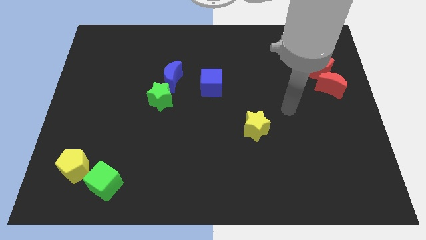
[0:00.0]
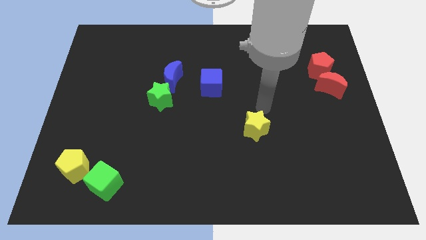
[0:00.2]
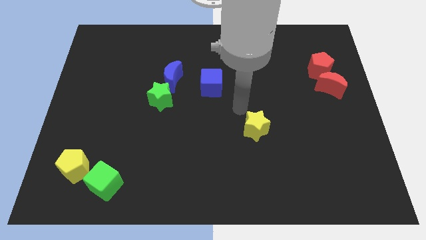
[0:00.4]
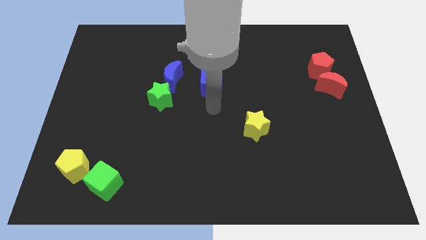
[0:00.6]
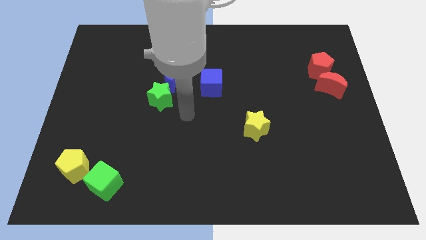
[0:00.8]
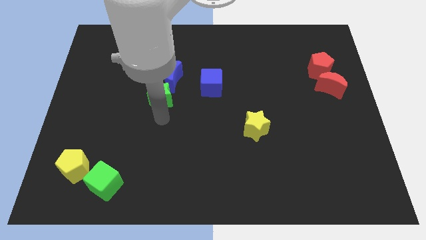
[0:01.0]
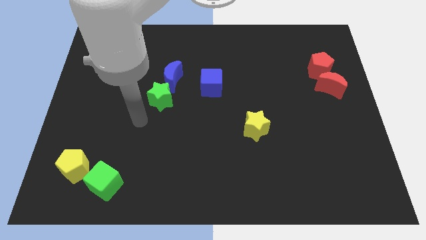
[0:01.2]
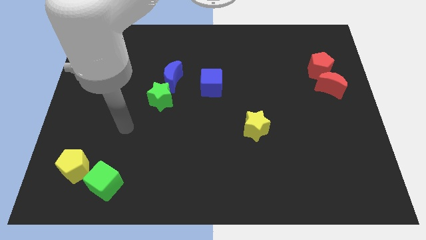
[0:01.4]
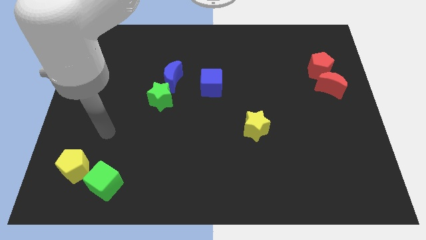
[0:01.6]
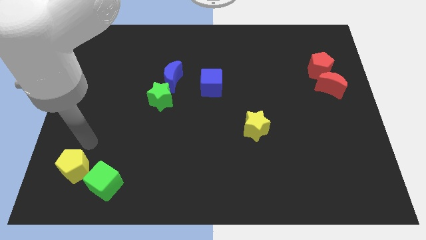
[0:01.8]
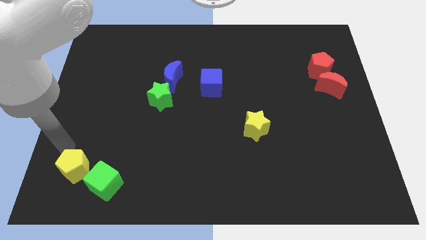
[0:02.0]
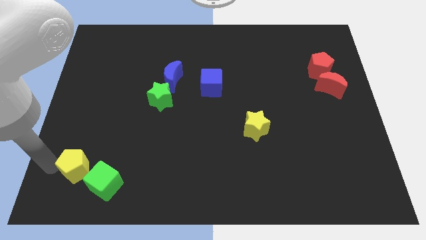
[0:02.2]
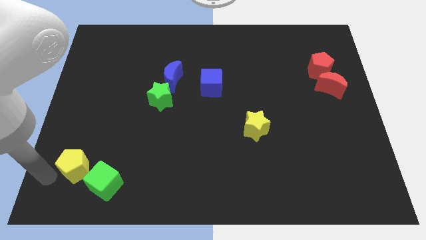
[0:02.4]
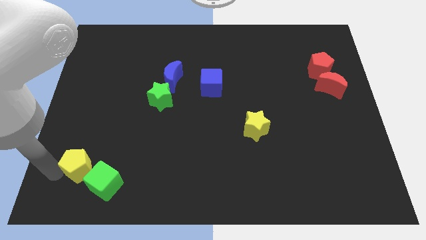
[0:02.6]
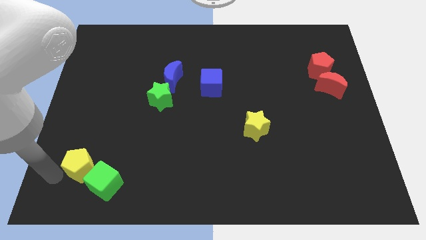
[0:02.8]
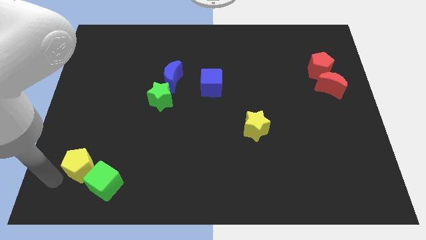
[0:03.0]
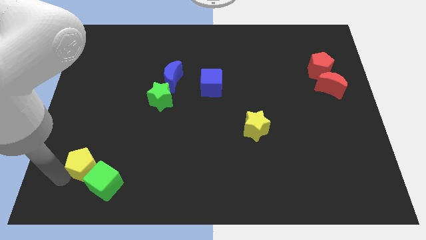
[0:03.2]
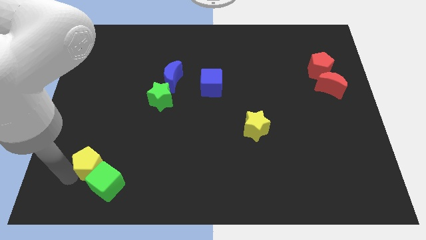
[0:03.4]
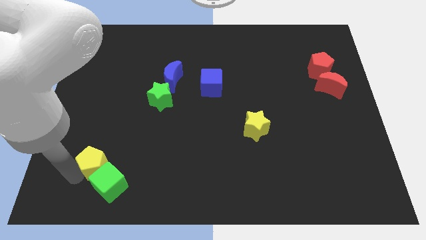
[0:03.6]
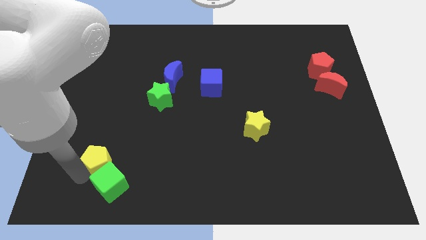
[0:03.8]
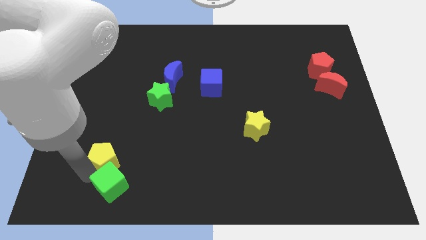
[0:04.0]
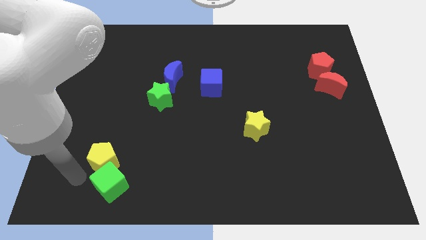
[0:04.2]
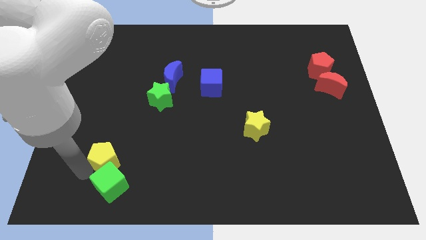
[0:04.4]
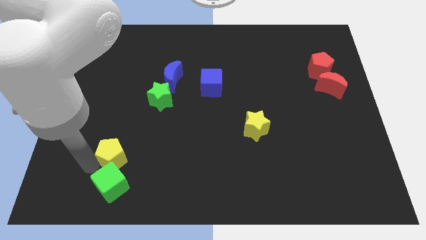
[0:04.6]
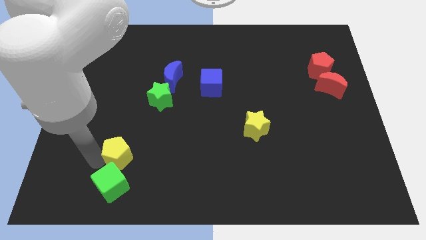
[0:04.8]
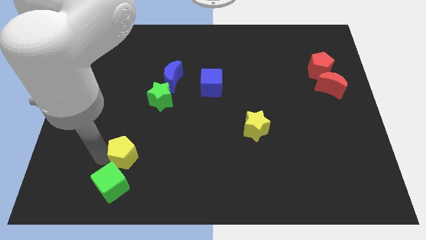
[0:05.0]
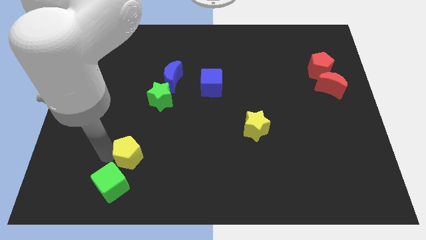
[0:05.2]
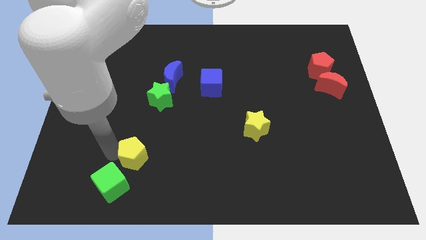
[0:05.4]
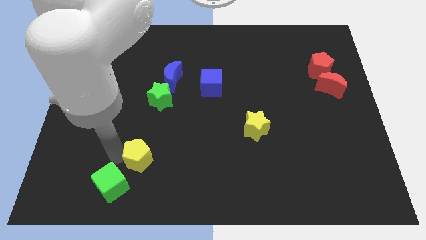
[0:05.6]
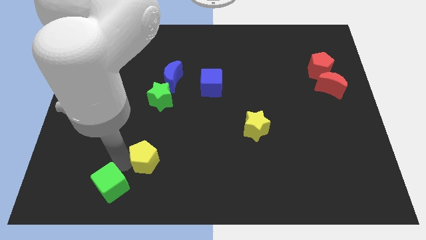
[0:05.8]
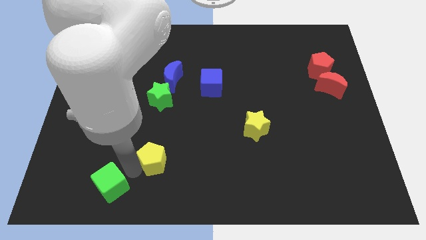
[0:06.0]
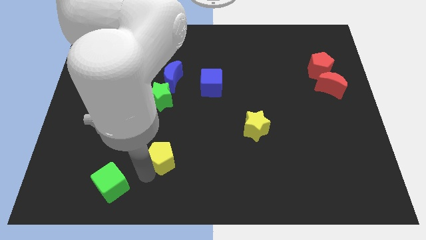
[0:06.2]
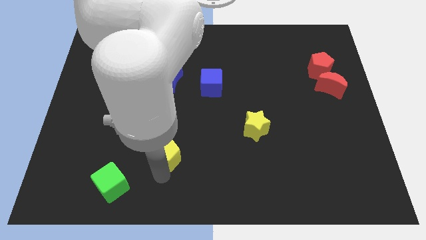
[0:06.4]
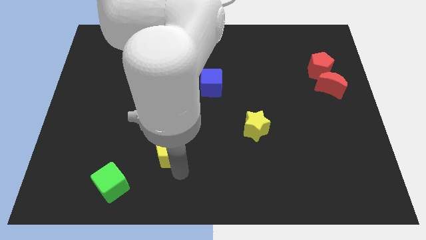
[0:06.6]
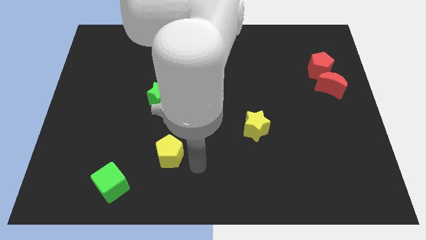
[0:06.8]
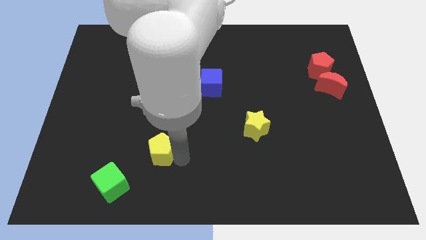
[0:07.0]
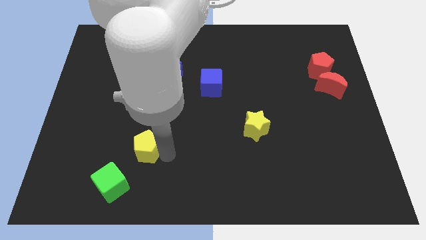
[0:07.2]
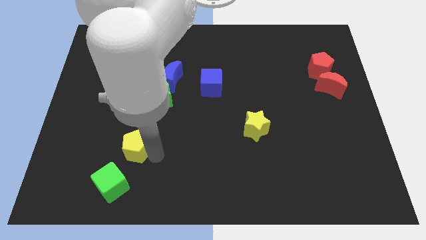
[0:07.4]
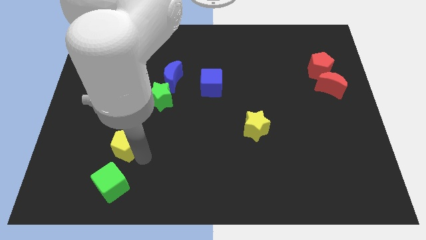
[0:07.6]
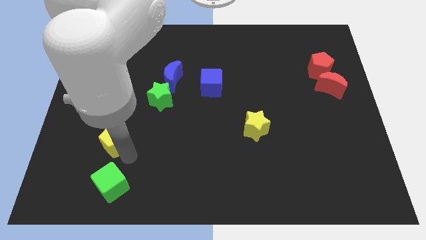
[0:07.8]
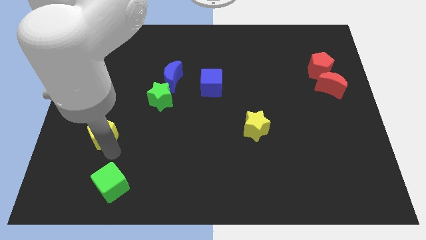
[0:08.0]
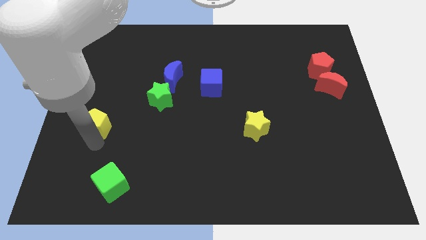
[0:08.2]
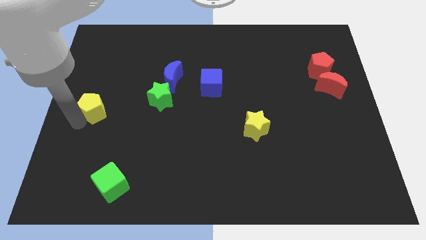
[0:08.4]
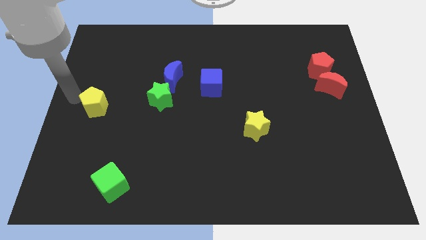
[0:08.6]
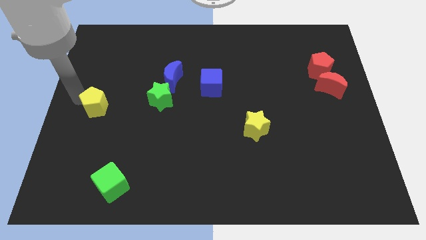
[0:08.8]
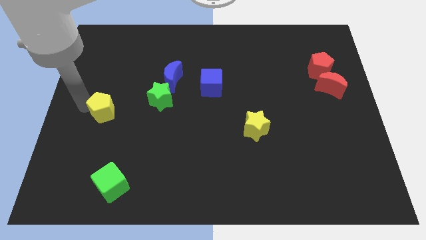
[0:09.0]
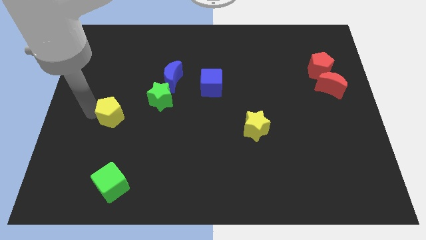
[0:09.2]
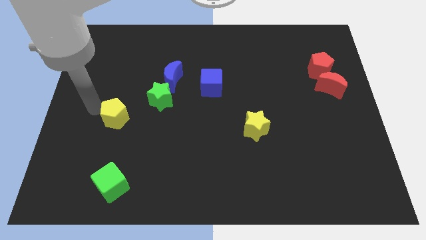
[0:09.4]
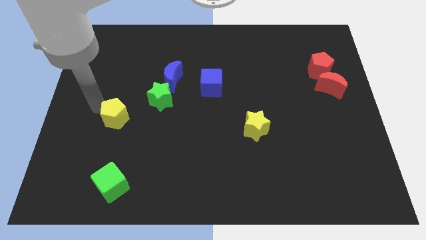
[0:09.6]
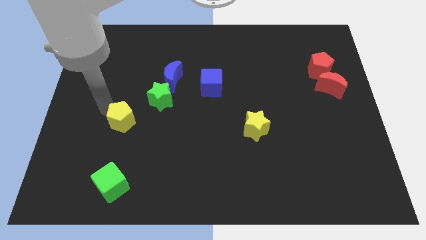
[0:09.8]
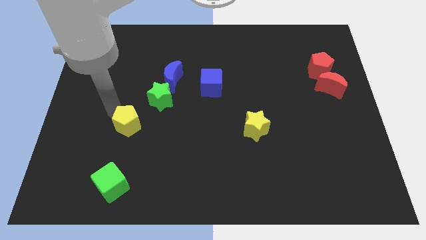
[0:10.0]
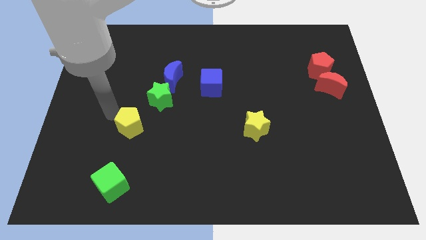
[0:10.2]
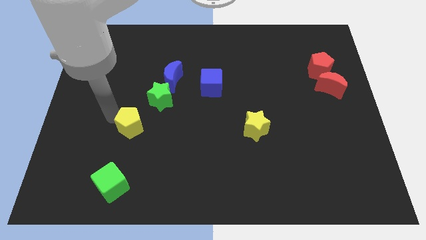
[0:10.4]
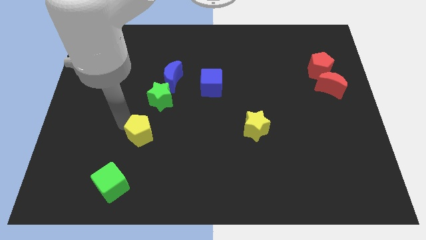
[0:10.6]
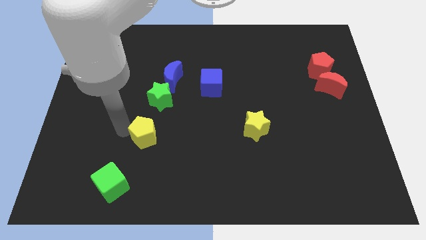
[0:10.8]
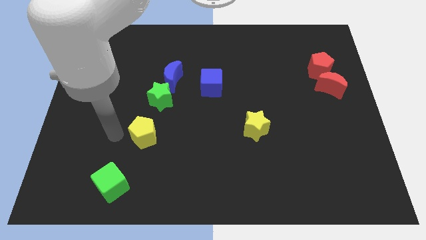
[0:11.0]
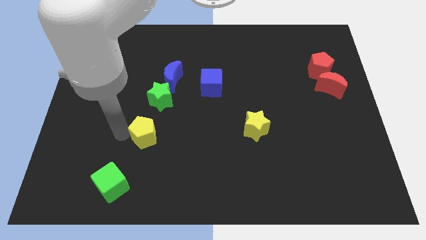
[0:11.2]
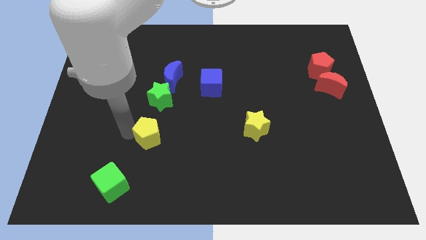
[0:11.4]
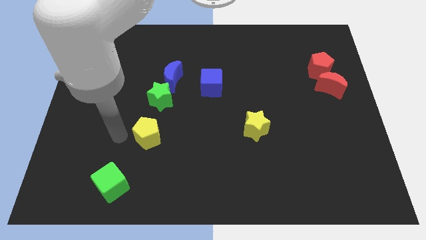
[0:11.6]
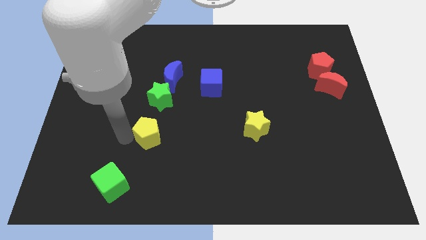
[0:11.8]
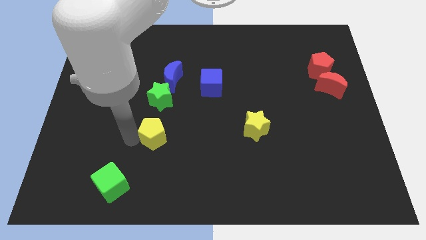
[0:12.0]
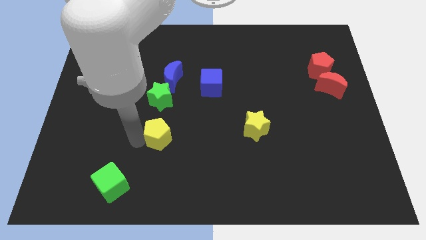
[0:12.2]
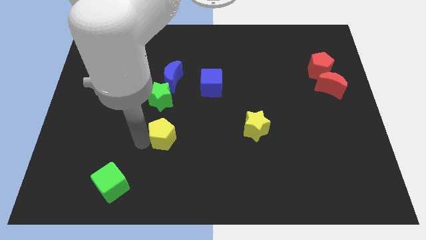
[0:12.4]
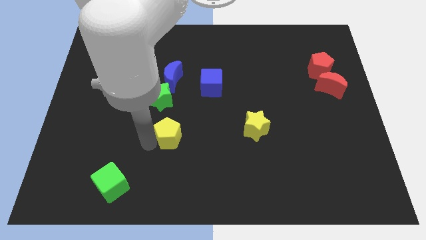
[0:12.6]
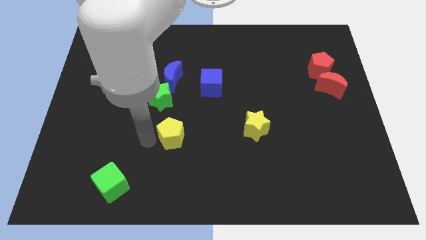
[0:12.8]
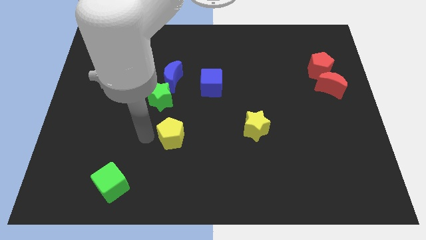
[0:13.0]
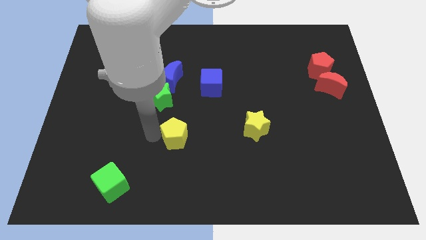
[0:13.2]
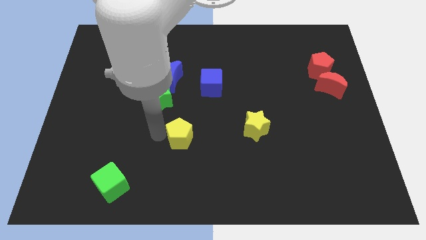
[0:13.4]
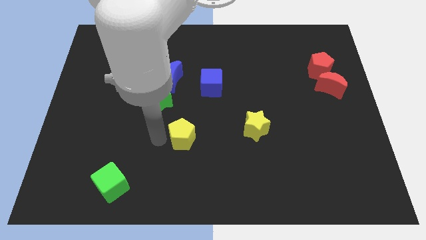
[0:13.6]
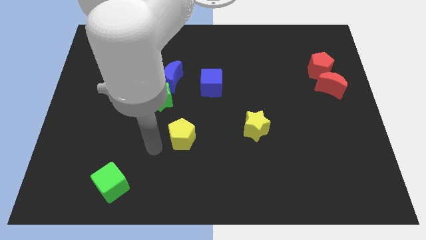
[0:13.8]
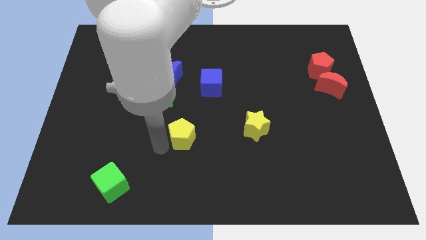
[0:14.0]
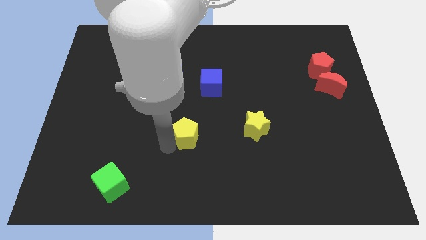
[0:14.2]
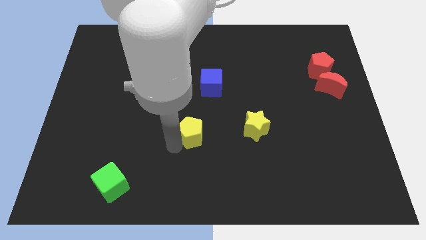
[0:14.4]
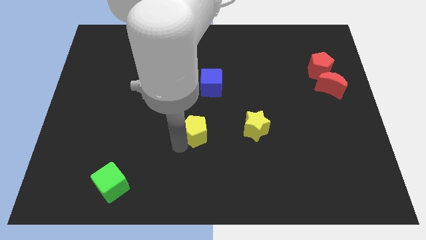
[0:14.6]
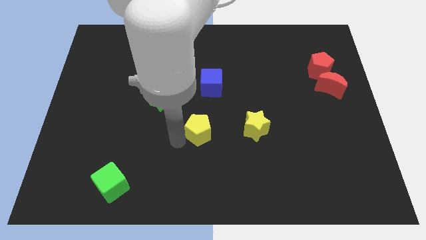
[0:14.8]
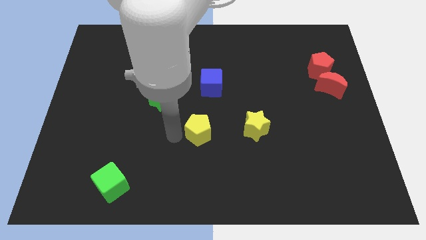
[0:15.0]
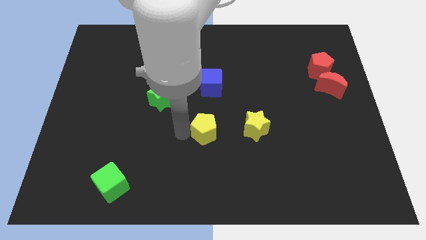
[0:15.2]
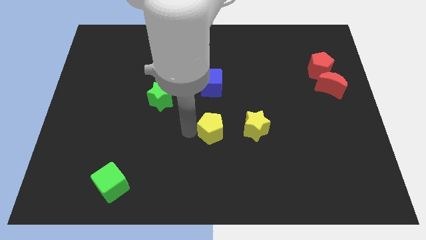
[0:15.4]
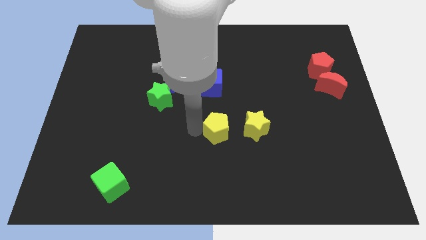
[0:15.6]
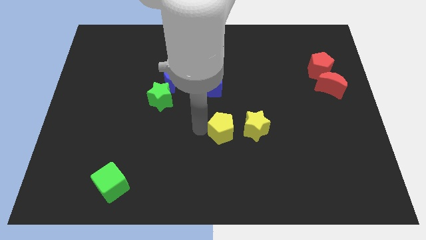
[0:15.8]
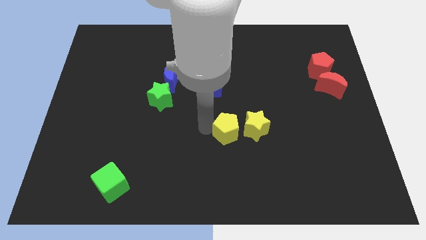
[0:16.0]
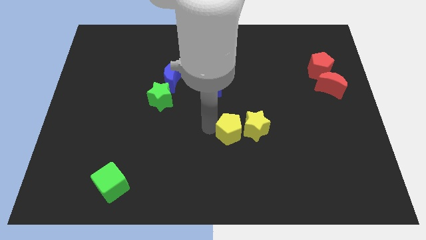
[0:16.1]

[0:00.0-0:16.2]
slide the yellow pentagon to the yellow star
